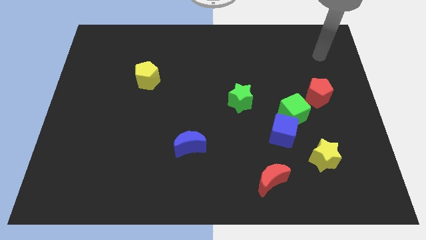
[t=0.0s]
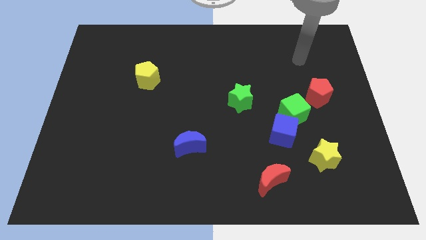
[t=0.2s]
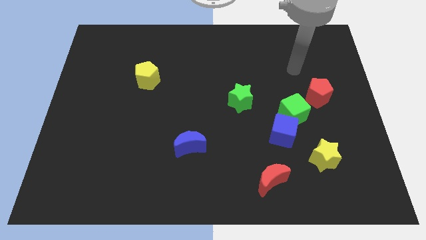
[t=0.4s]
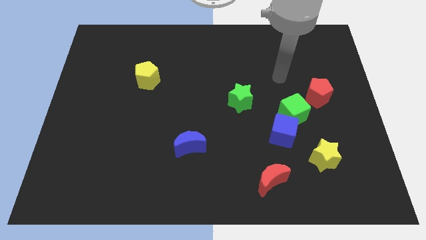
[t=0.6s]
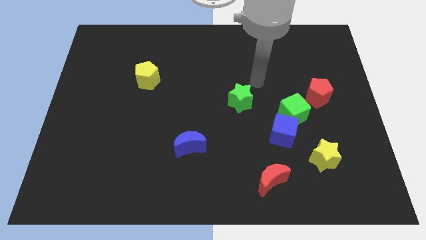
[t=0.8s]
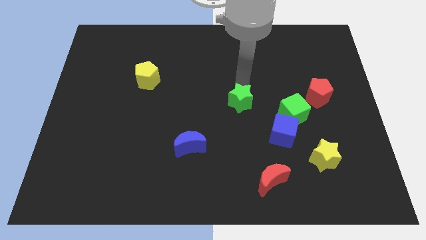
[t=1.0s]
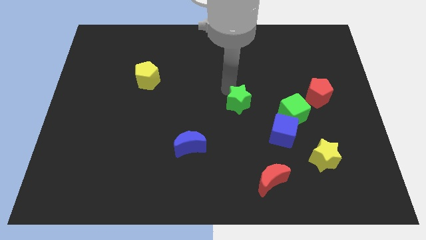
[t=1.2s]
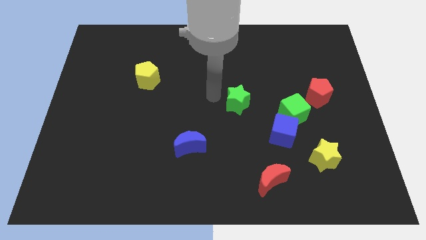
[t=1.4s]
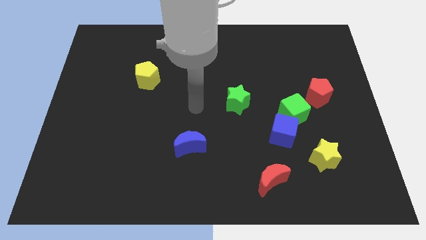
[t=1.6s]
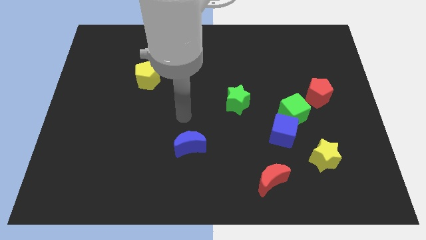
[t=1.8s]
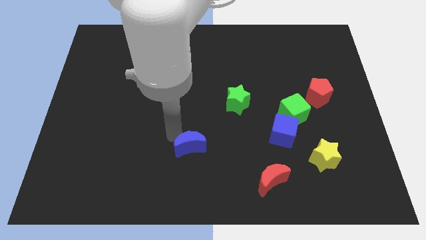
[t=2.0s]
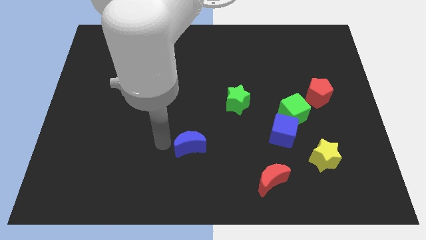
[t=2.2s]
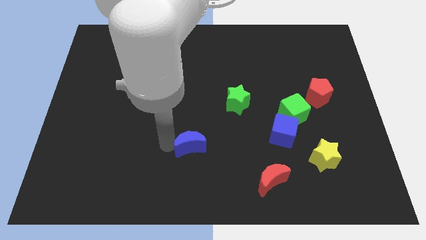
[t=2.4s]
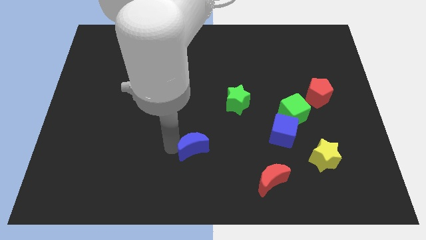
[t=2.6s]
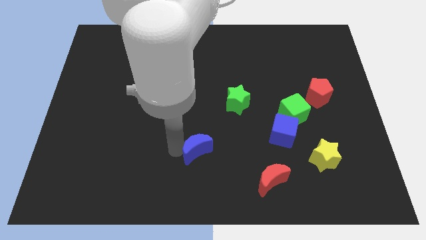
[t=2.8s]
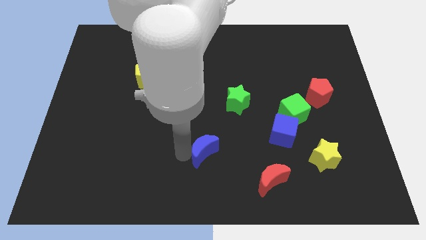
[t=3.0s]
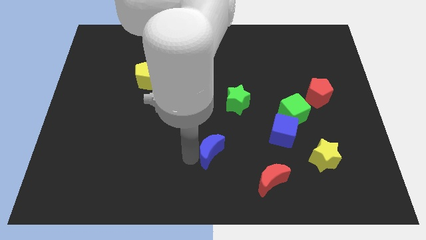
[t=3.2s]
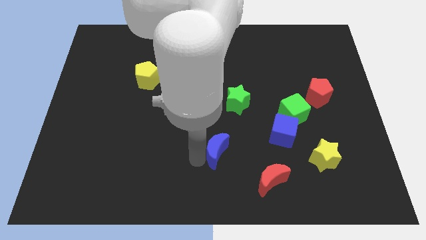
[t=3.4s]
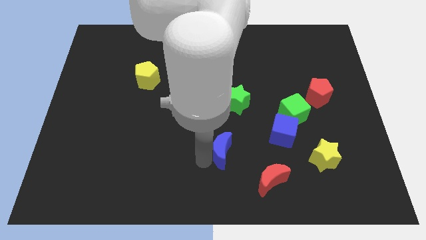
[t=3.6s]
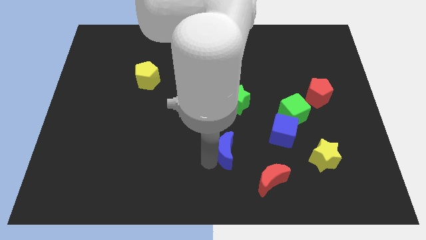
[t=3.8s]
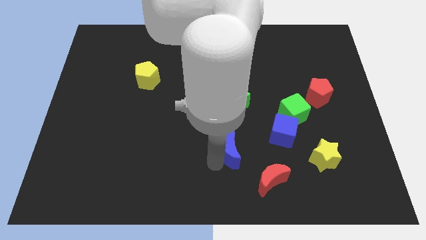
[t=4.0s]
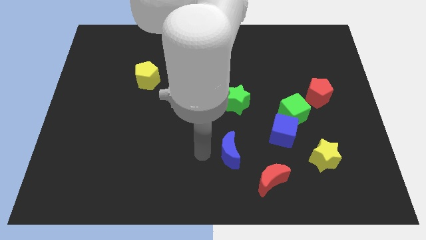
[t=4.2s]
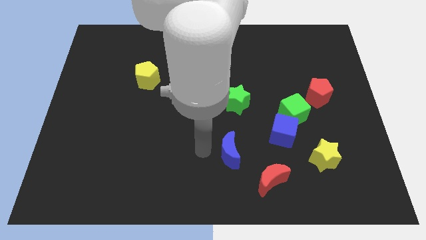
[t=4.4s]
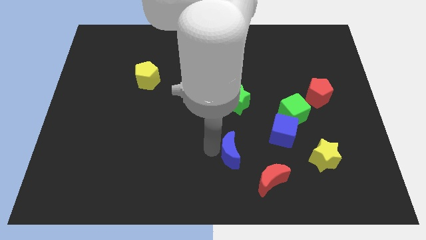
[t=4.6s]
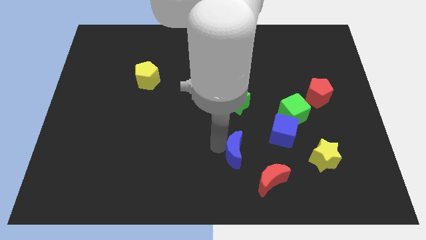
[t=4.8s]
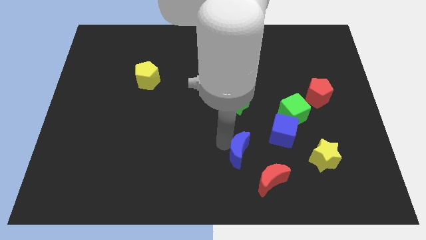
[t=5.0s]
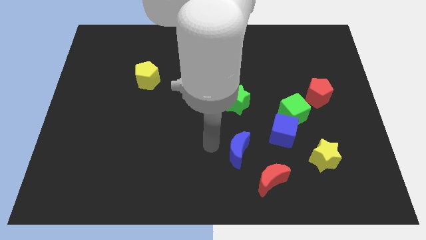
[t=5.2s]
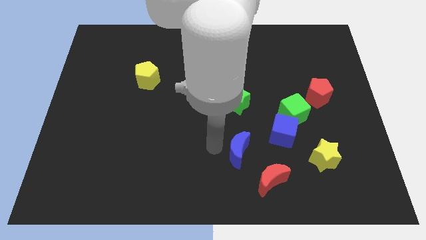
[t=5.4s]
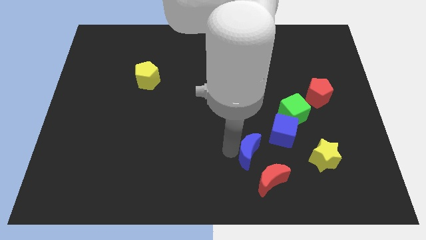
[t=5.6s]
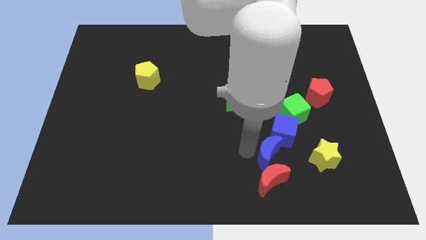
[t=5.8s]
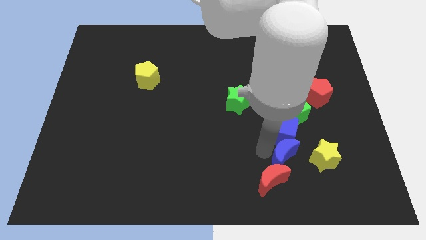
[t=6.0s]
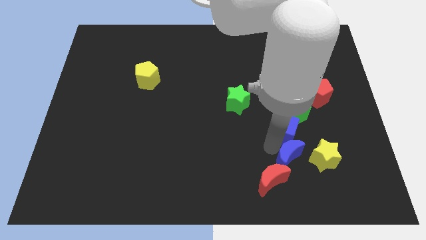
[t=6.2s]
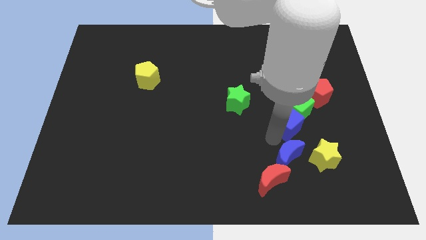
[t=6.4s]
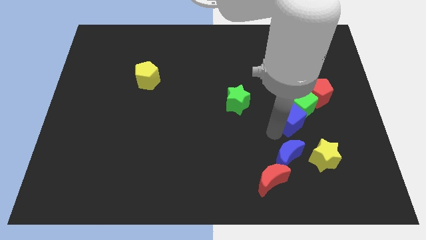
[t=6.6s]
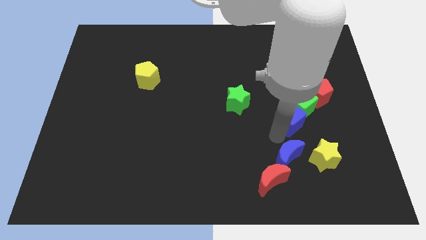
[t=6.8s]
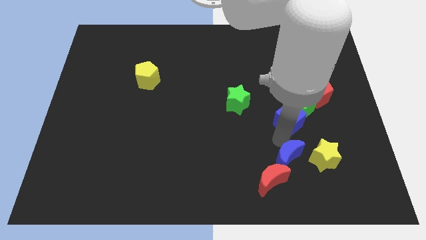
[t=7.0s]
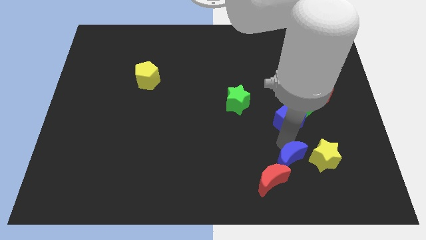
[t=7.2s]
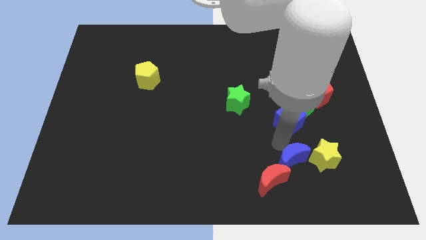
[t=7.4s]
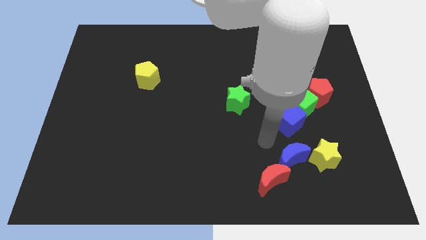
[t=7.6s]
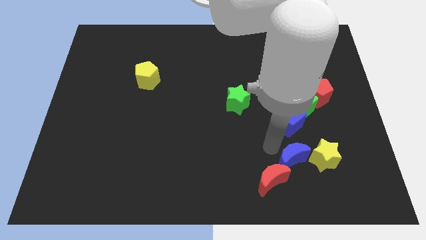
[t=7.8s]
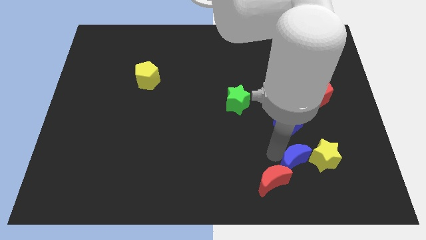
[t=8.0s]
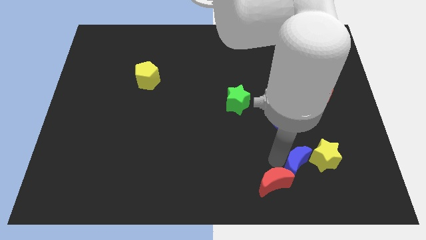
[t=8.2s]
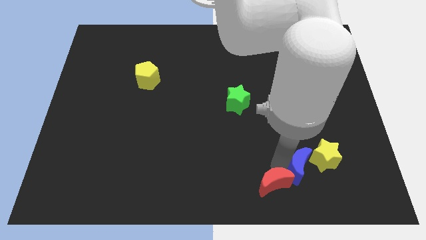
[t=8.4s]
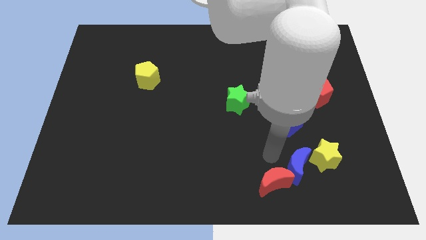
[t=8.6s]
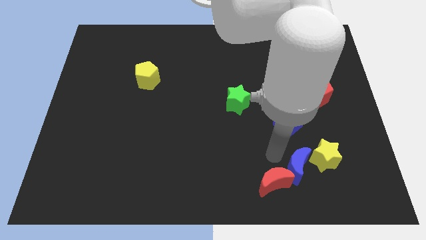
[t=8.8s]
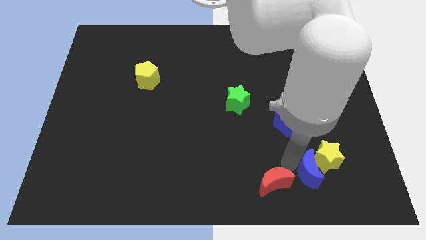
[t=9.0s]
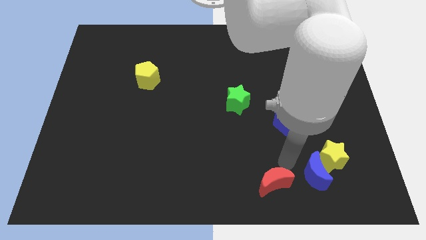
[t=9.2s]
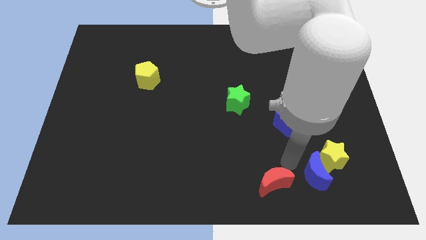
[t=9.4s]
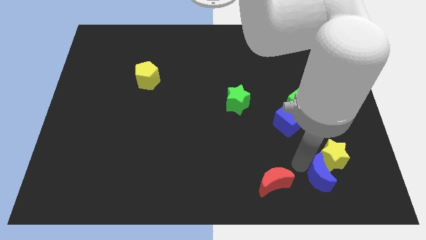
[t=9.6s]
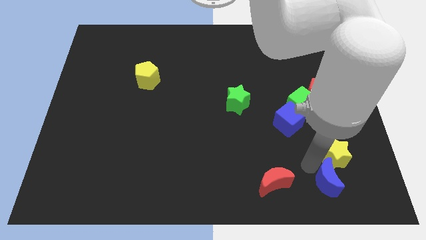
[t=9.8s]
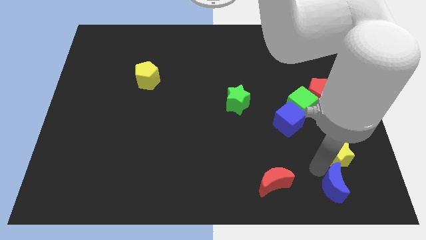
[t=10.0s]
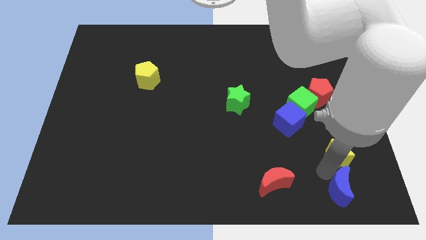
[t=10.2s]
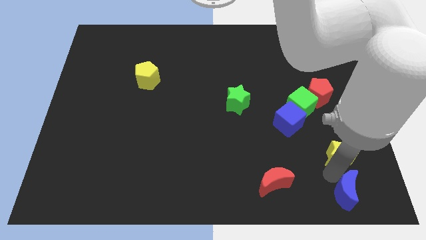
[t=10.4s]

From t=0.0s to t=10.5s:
move the blue moon to the bottom right of the board

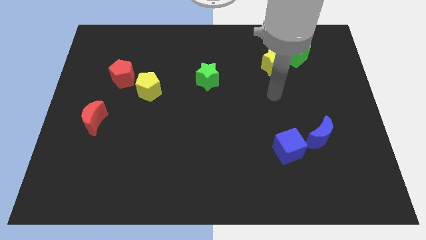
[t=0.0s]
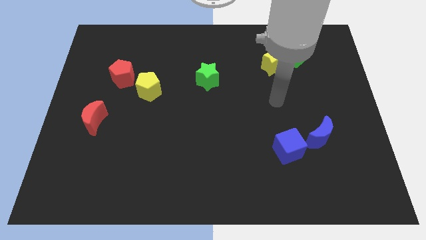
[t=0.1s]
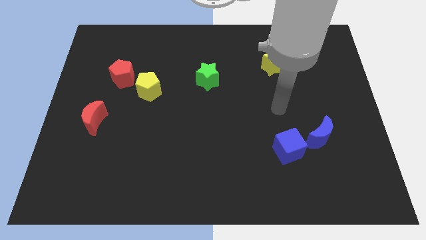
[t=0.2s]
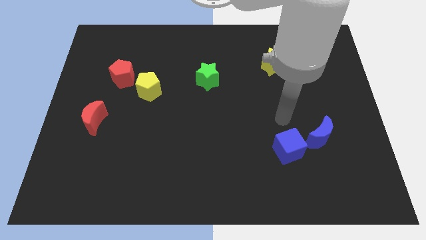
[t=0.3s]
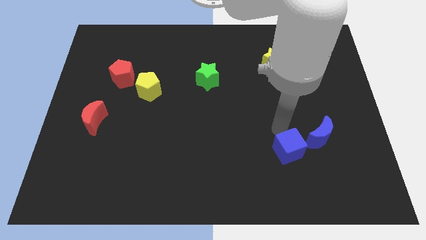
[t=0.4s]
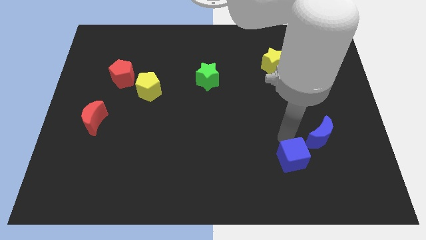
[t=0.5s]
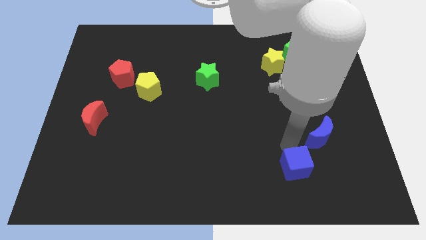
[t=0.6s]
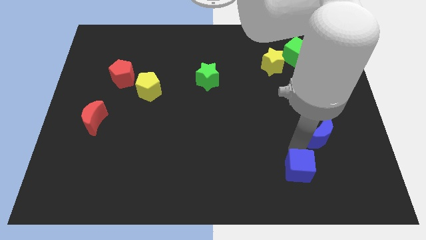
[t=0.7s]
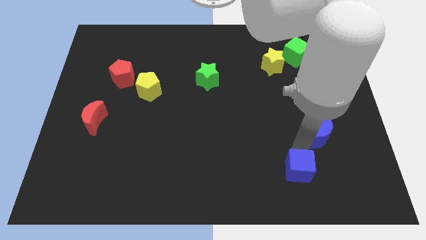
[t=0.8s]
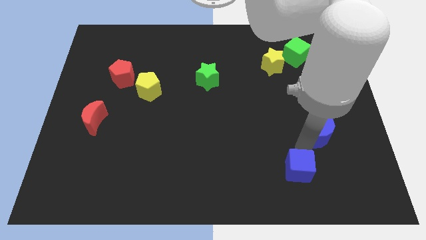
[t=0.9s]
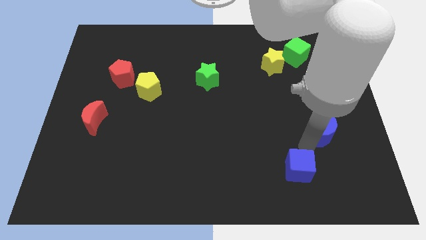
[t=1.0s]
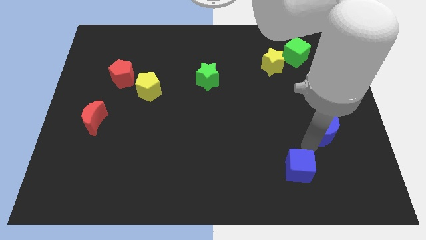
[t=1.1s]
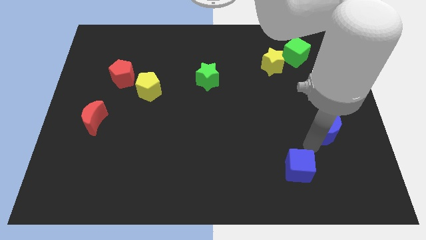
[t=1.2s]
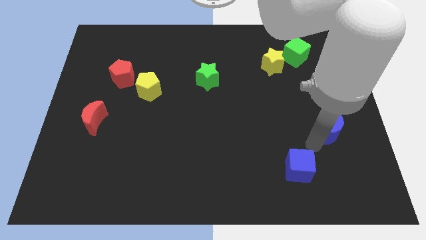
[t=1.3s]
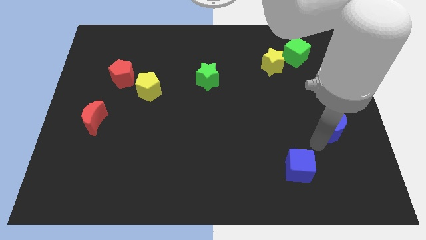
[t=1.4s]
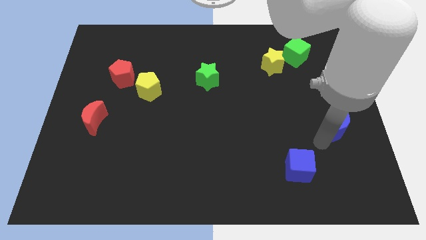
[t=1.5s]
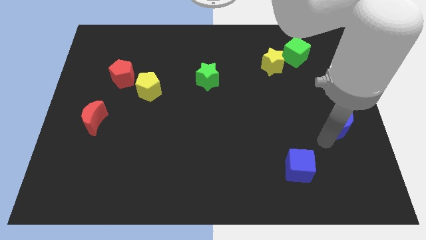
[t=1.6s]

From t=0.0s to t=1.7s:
slide the blue moon to the right side of the board
